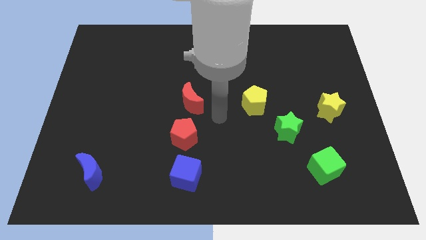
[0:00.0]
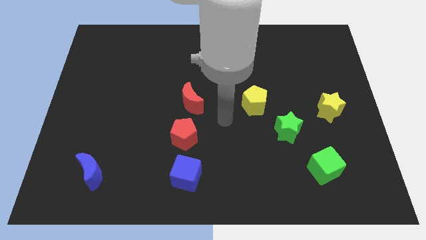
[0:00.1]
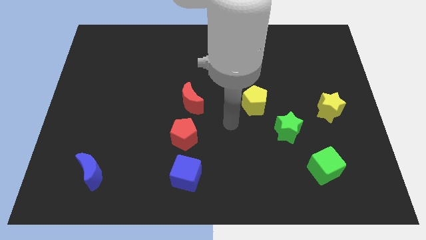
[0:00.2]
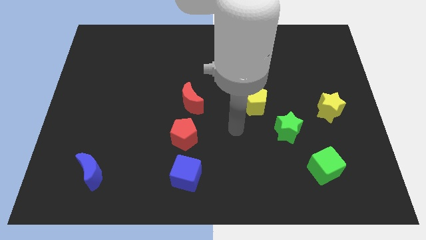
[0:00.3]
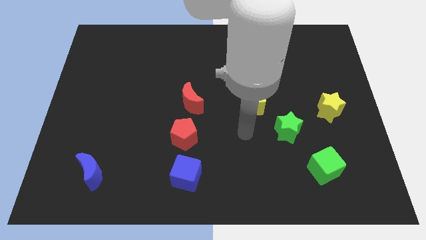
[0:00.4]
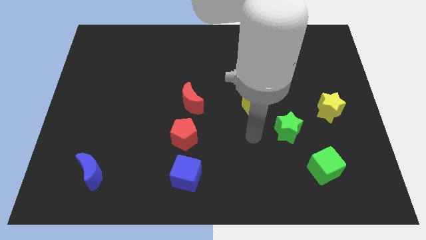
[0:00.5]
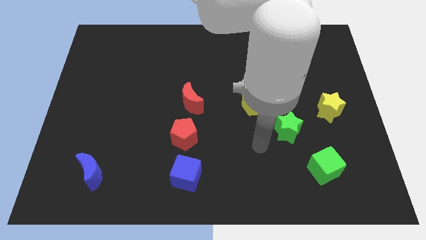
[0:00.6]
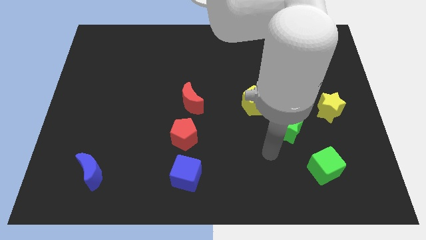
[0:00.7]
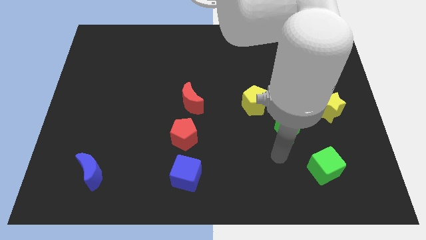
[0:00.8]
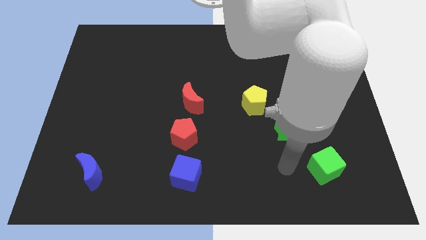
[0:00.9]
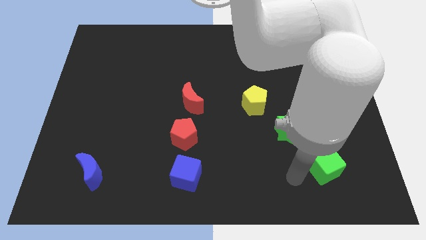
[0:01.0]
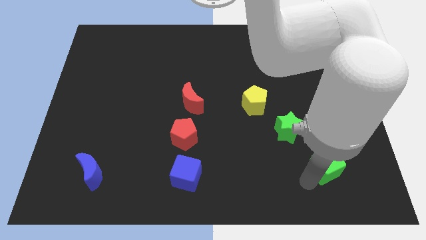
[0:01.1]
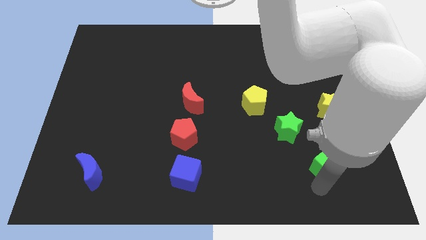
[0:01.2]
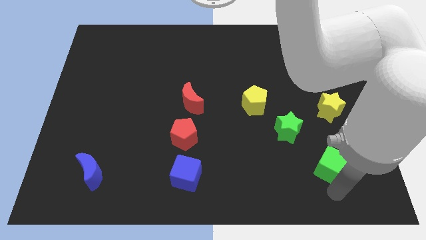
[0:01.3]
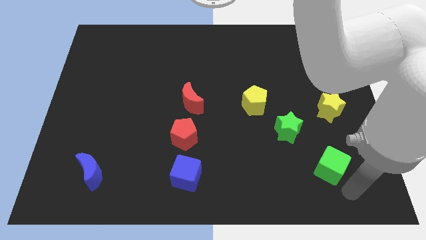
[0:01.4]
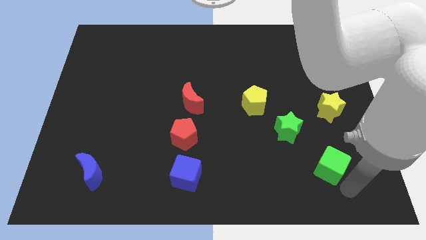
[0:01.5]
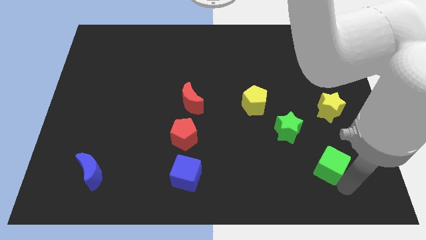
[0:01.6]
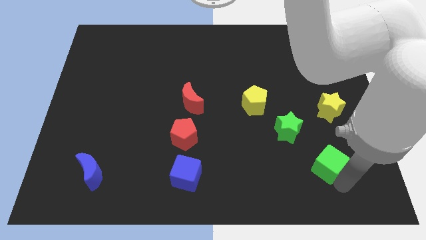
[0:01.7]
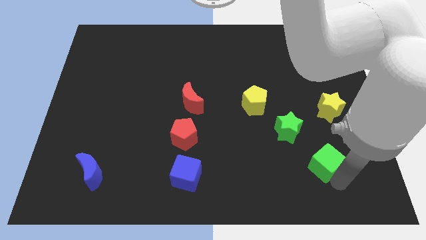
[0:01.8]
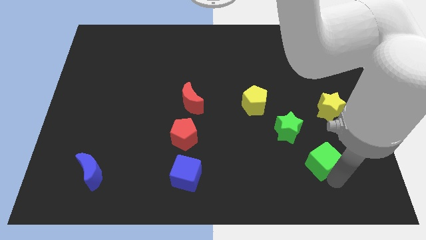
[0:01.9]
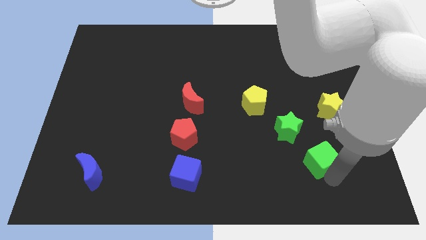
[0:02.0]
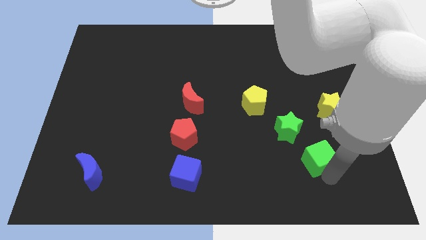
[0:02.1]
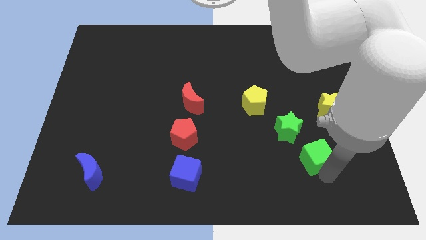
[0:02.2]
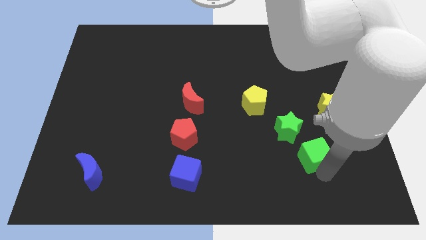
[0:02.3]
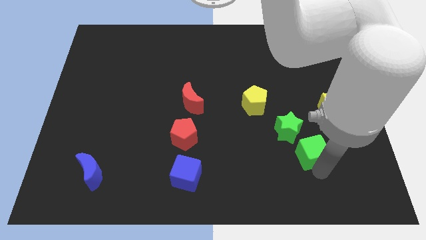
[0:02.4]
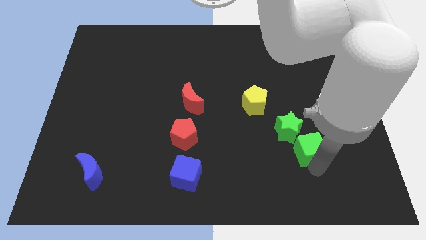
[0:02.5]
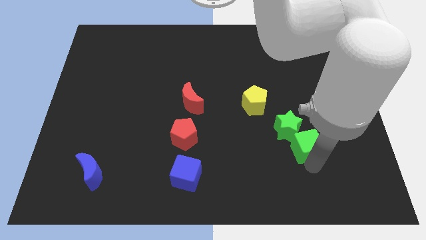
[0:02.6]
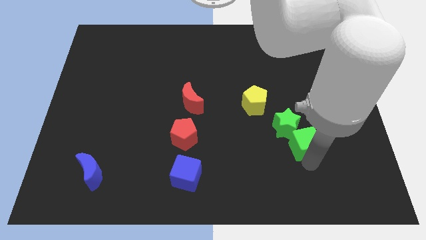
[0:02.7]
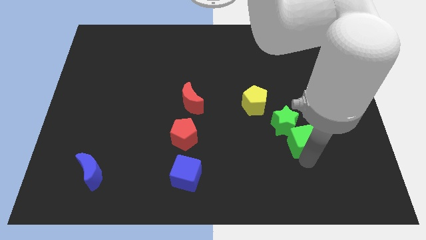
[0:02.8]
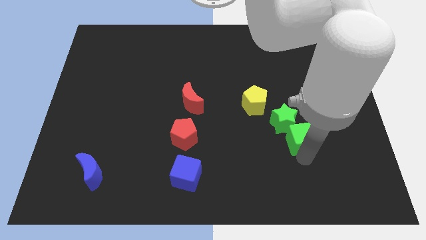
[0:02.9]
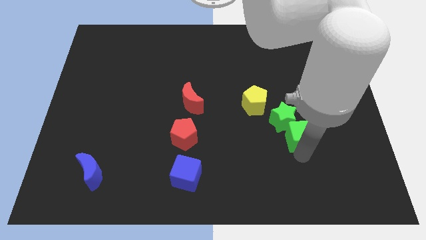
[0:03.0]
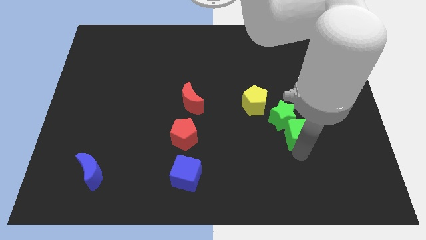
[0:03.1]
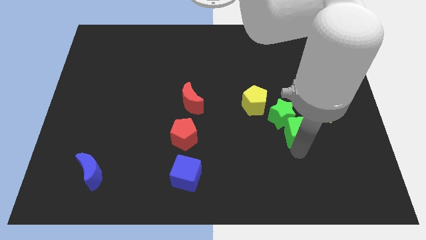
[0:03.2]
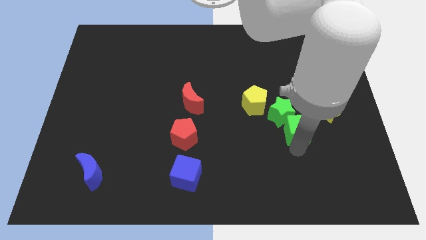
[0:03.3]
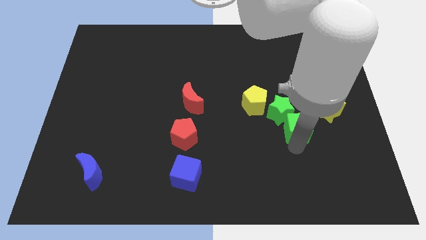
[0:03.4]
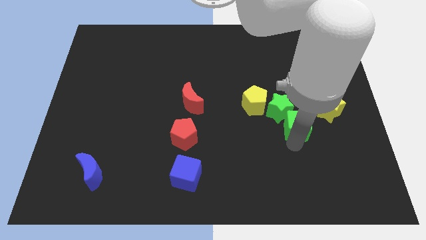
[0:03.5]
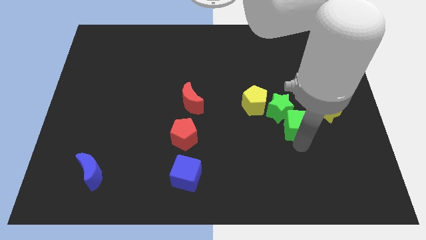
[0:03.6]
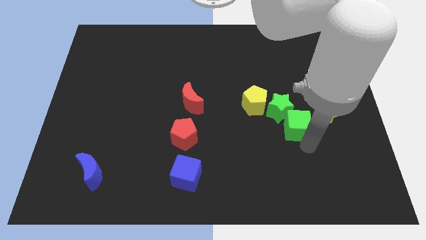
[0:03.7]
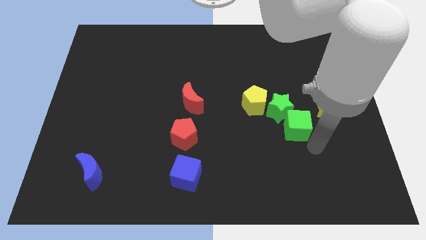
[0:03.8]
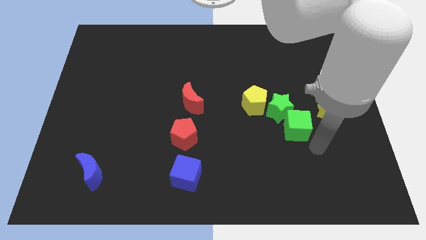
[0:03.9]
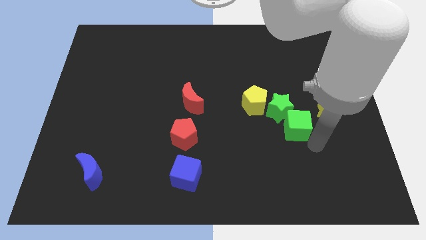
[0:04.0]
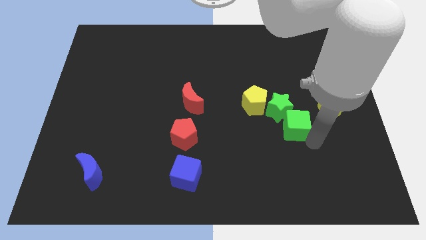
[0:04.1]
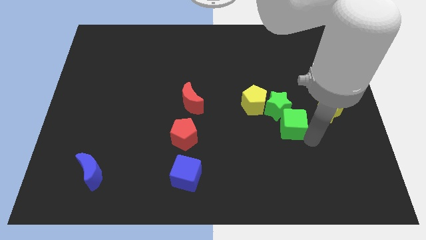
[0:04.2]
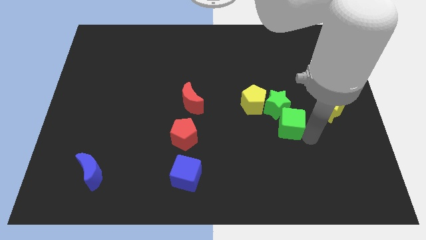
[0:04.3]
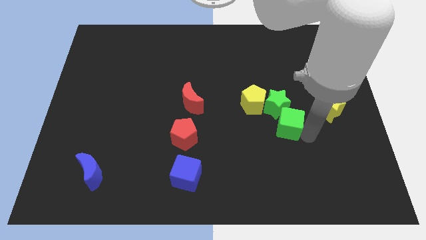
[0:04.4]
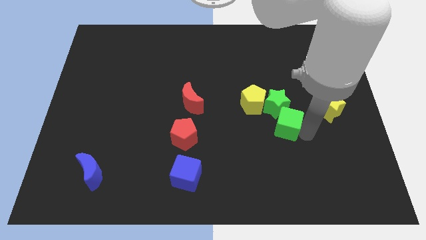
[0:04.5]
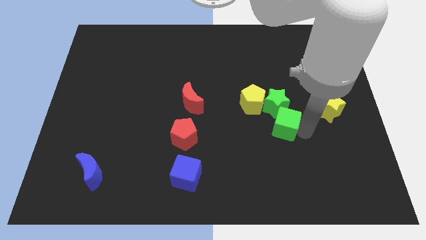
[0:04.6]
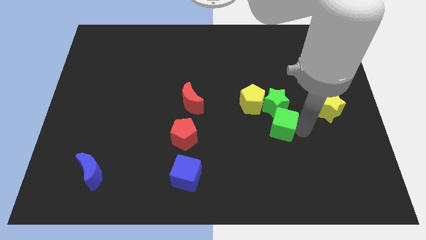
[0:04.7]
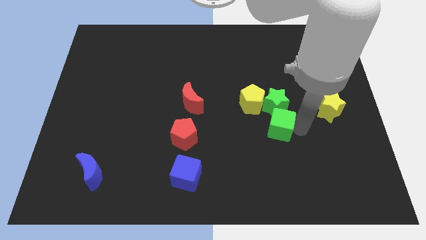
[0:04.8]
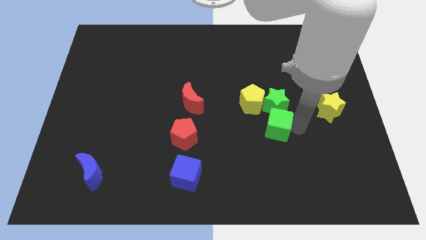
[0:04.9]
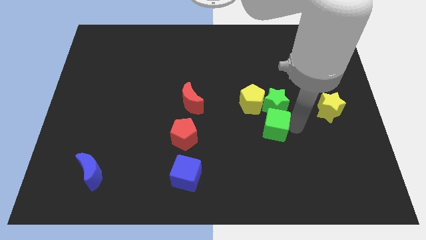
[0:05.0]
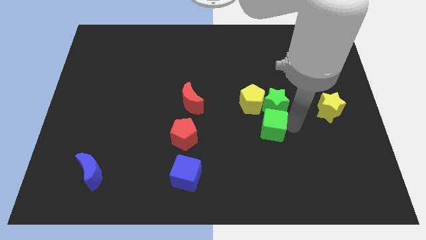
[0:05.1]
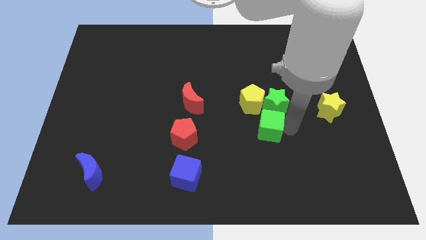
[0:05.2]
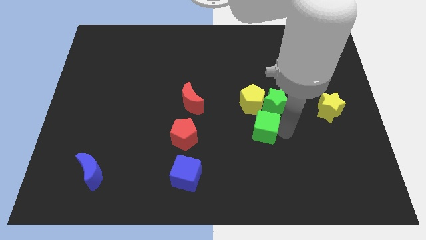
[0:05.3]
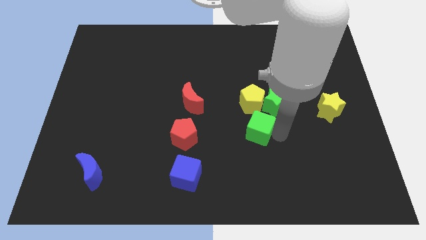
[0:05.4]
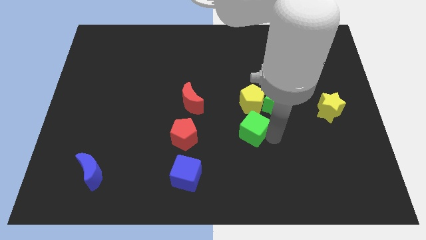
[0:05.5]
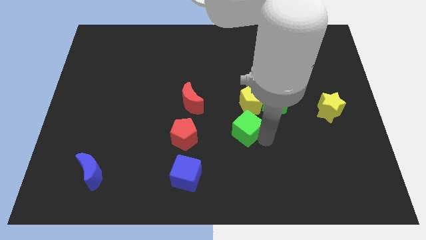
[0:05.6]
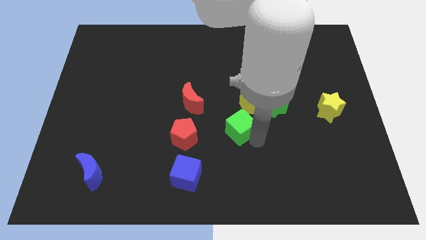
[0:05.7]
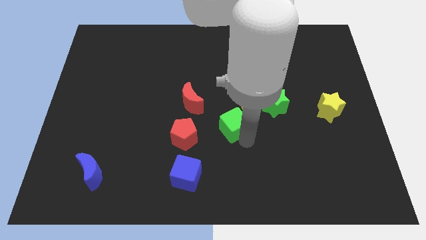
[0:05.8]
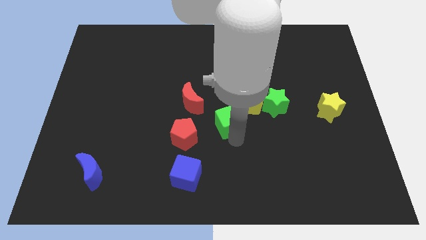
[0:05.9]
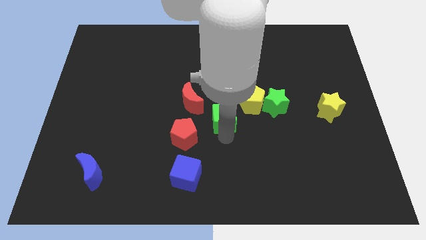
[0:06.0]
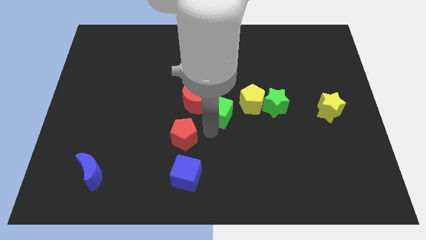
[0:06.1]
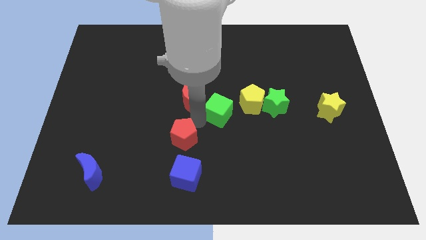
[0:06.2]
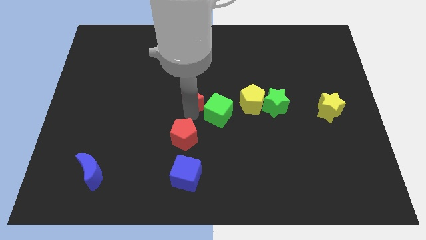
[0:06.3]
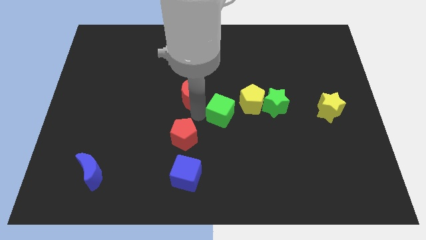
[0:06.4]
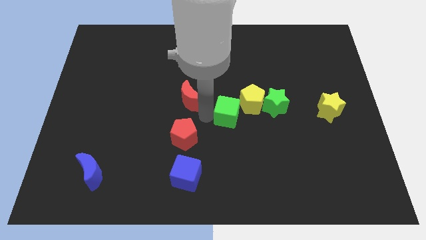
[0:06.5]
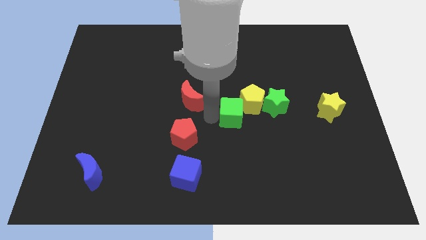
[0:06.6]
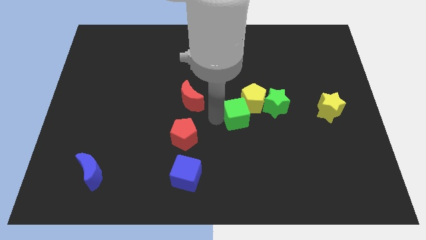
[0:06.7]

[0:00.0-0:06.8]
move the green cube towards the yellow pentagon

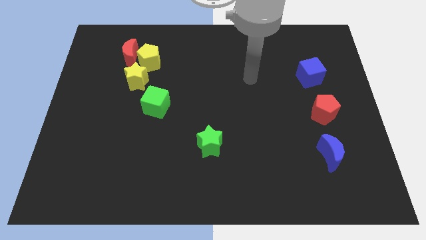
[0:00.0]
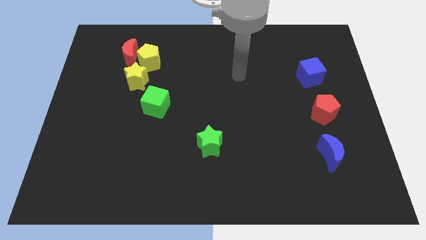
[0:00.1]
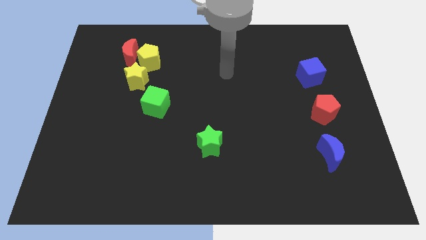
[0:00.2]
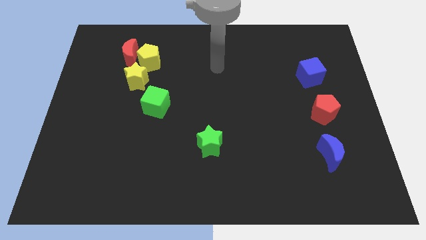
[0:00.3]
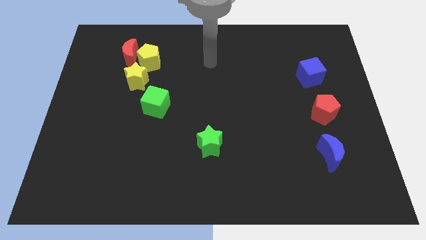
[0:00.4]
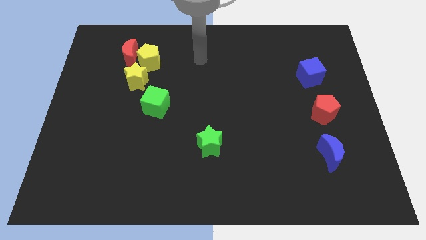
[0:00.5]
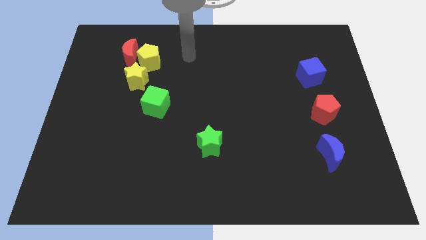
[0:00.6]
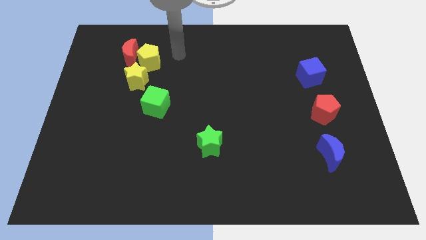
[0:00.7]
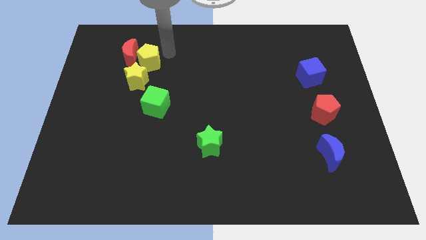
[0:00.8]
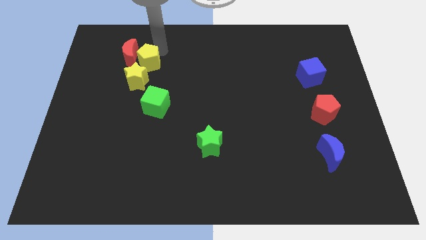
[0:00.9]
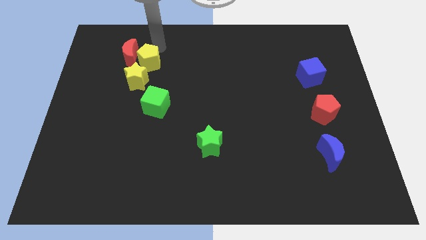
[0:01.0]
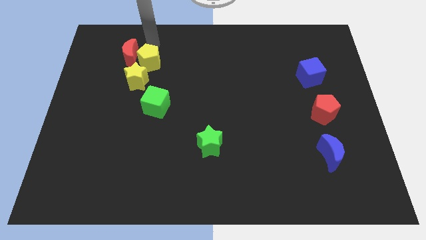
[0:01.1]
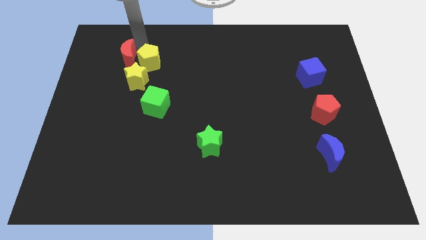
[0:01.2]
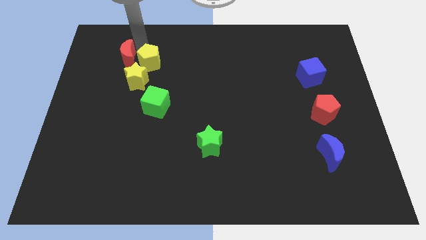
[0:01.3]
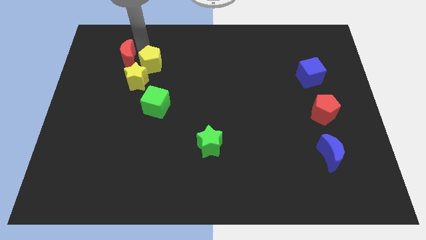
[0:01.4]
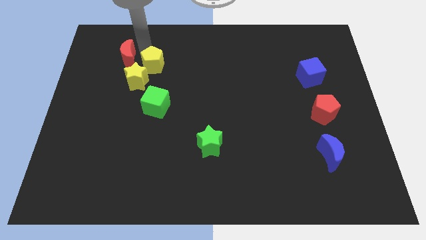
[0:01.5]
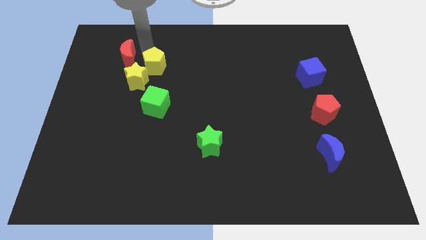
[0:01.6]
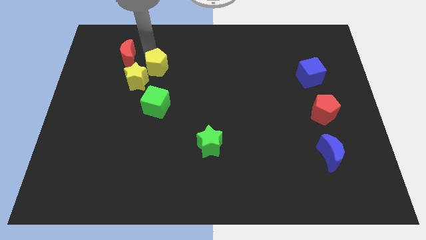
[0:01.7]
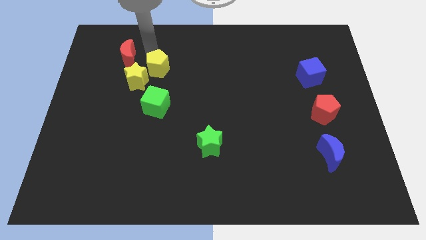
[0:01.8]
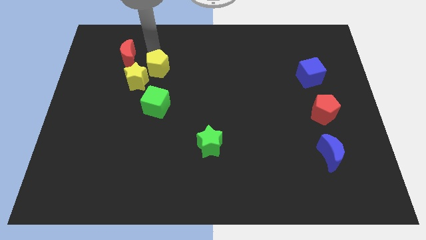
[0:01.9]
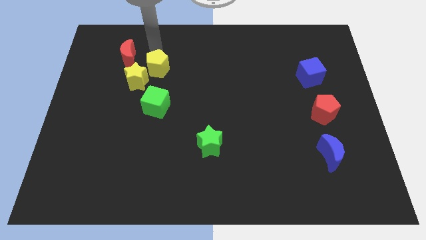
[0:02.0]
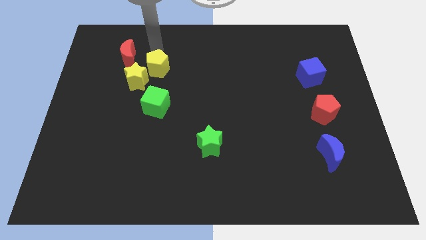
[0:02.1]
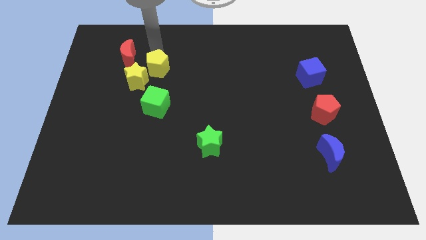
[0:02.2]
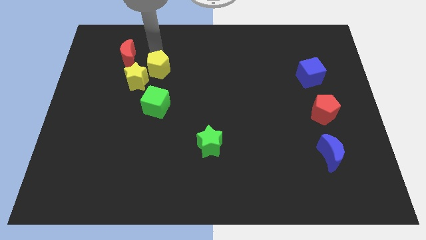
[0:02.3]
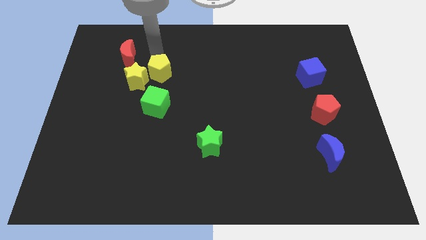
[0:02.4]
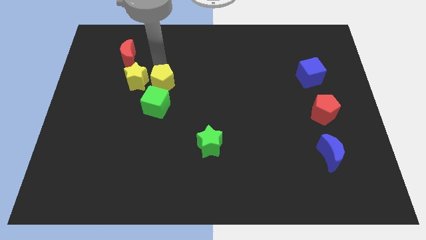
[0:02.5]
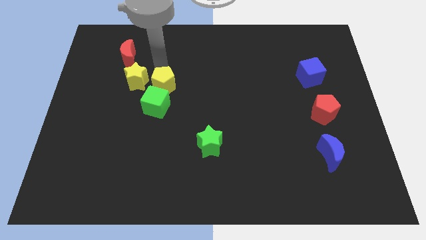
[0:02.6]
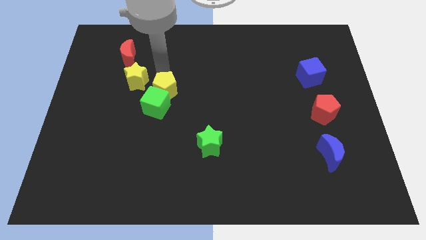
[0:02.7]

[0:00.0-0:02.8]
slide the yellow pentagon close to the green cube
